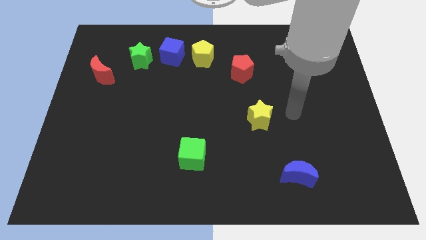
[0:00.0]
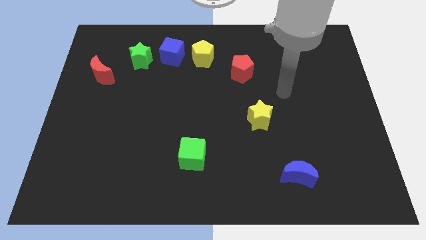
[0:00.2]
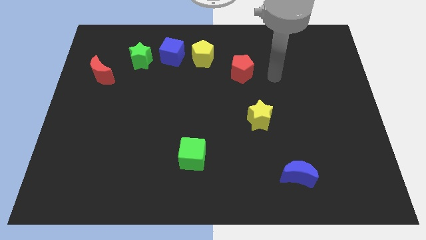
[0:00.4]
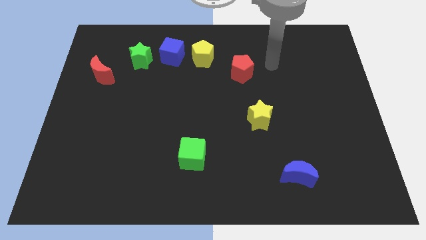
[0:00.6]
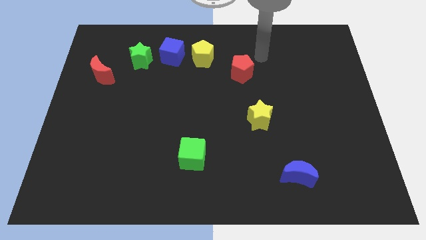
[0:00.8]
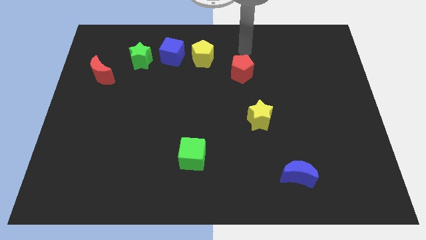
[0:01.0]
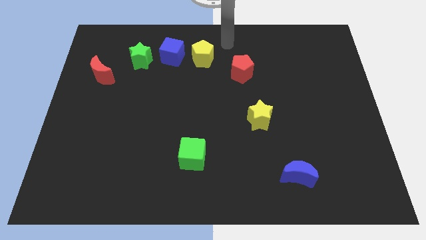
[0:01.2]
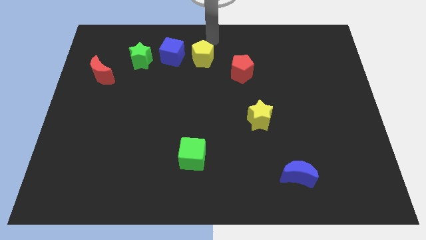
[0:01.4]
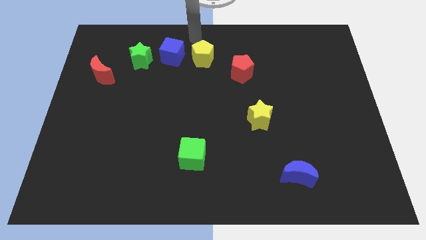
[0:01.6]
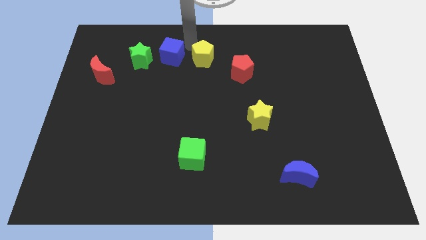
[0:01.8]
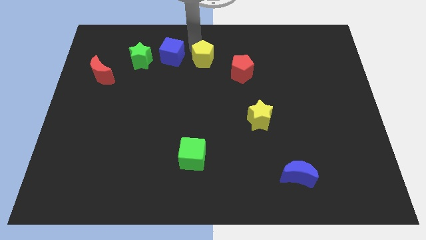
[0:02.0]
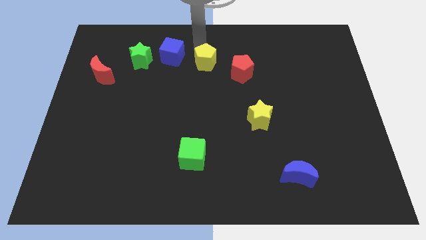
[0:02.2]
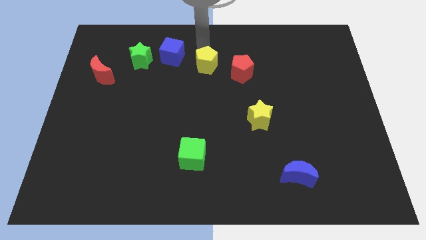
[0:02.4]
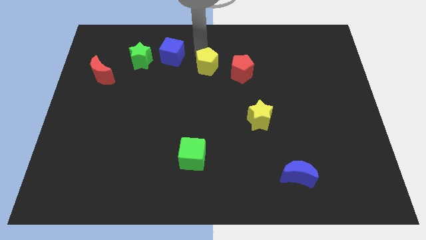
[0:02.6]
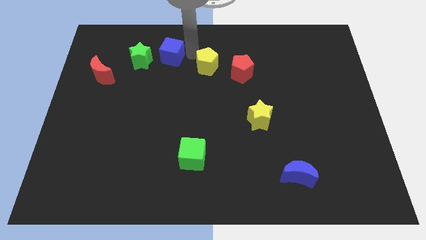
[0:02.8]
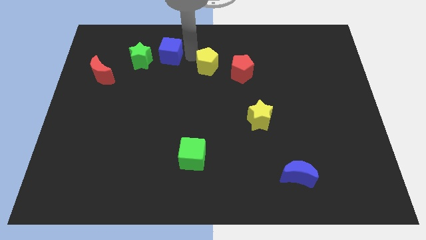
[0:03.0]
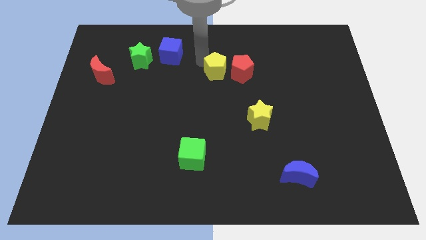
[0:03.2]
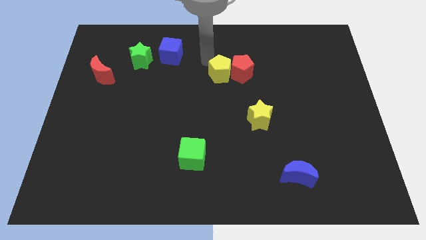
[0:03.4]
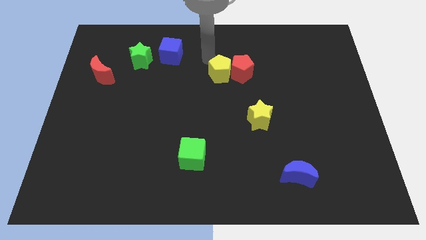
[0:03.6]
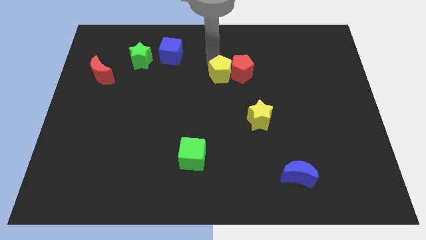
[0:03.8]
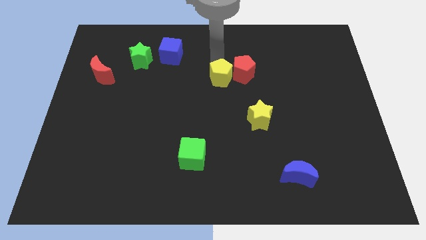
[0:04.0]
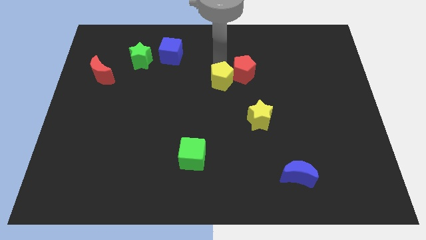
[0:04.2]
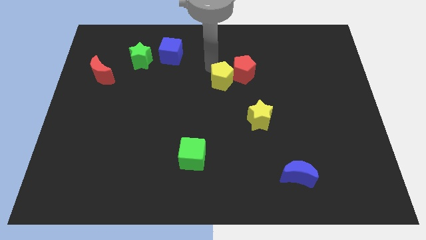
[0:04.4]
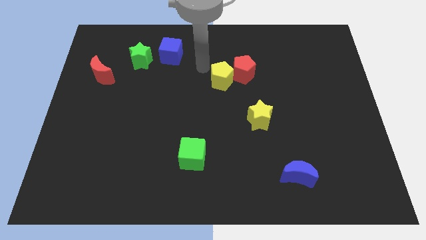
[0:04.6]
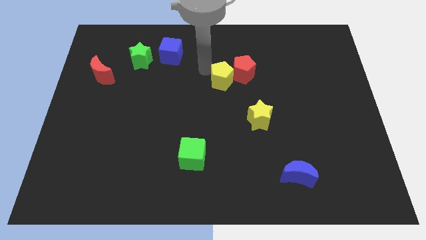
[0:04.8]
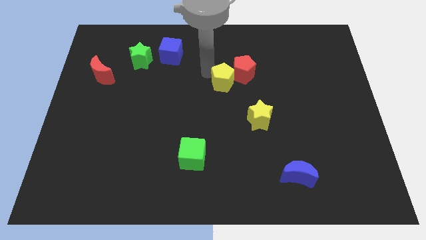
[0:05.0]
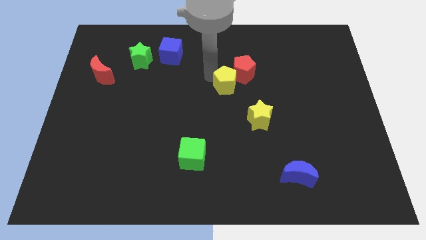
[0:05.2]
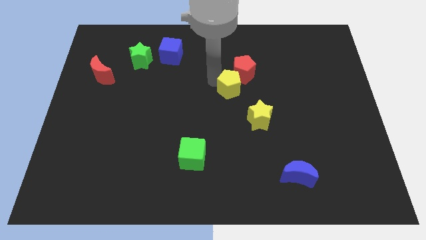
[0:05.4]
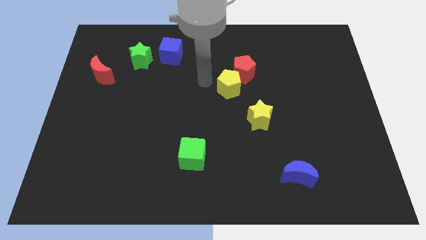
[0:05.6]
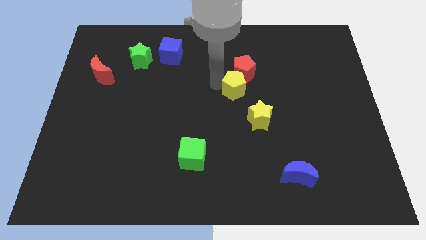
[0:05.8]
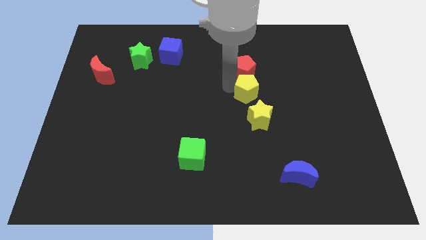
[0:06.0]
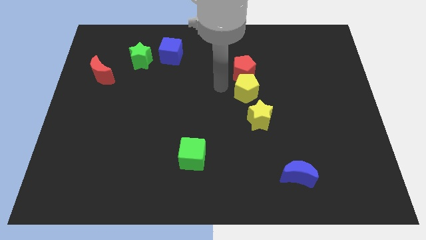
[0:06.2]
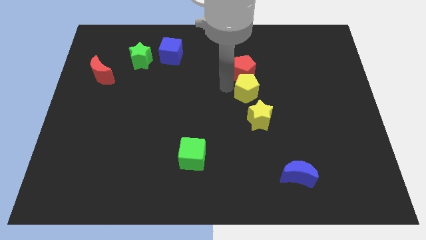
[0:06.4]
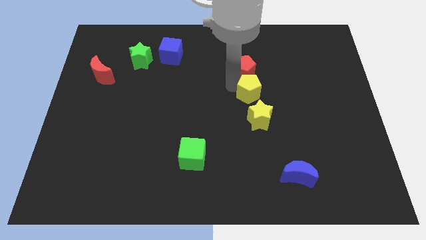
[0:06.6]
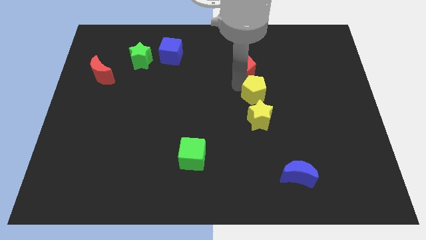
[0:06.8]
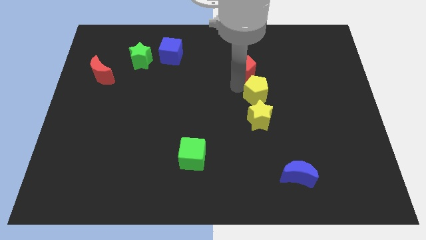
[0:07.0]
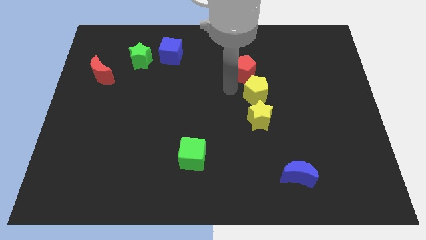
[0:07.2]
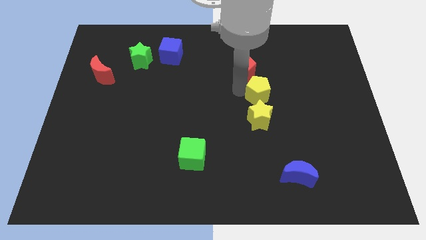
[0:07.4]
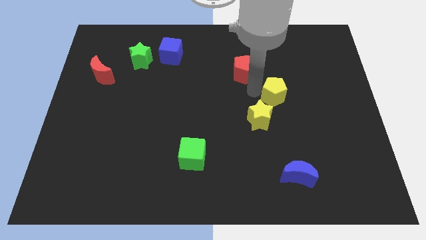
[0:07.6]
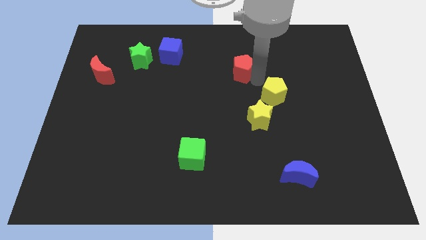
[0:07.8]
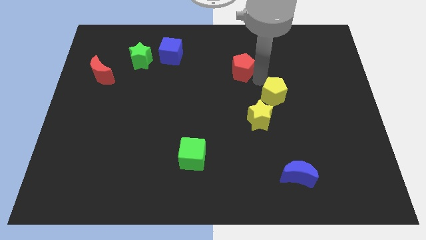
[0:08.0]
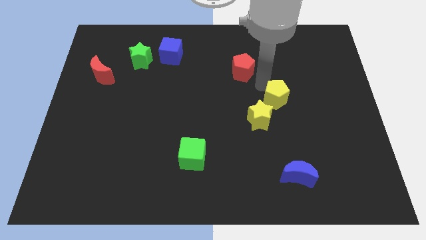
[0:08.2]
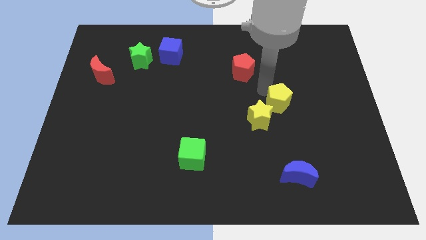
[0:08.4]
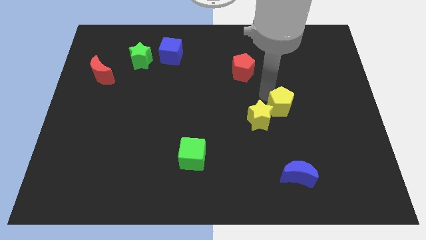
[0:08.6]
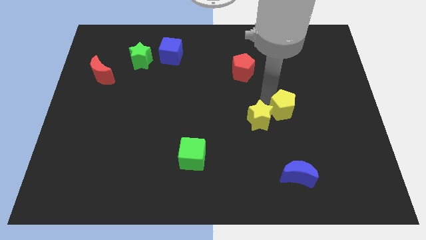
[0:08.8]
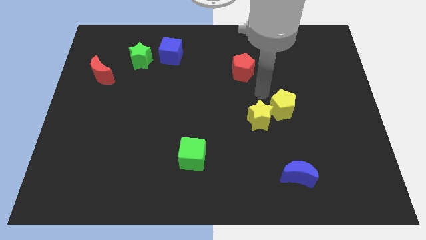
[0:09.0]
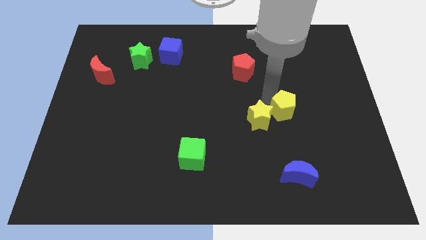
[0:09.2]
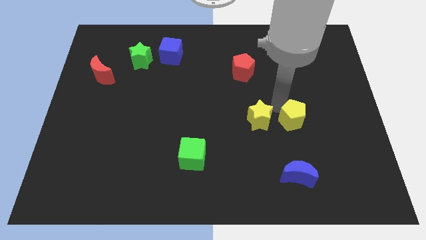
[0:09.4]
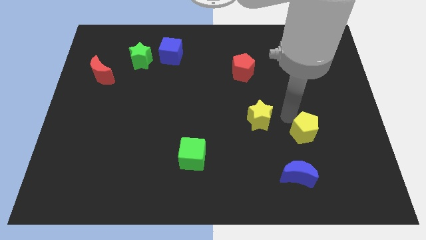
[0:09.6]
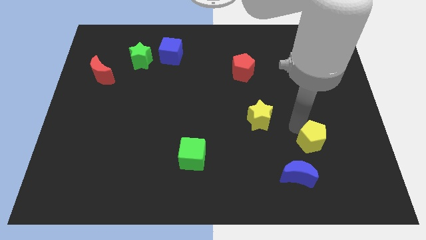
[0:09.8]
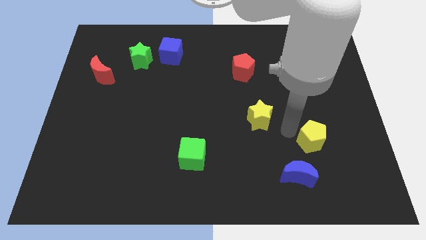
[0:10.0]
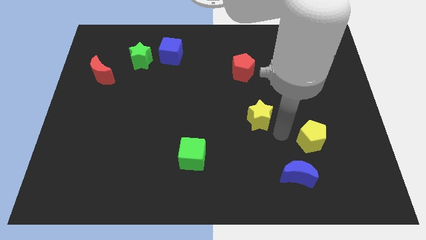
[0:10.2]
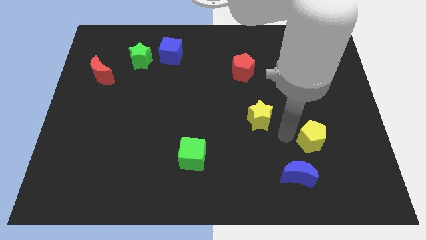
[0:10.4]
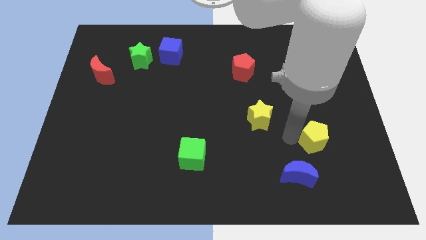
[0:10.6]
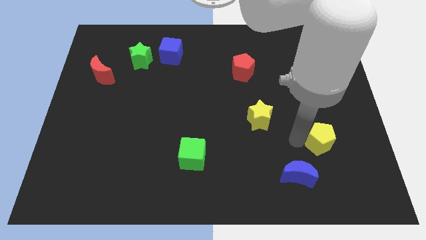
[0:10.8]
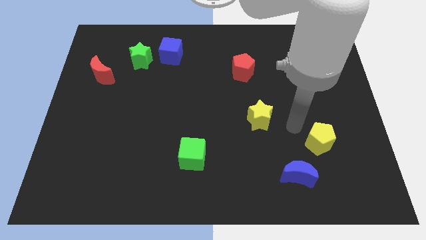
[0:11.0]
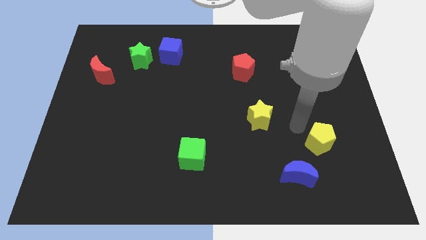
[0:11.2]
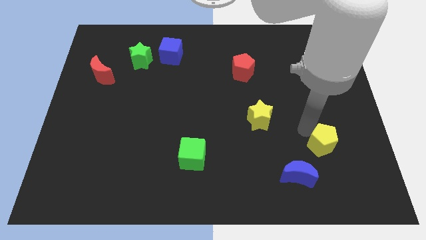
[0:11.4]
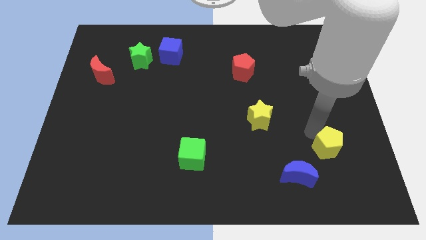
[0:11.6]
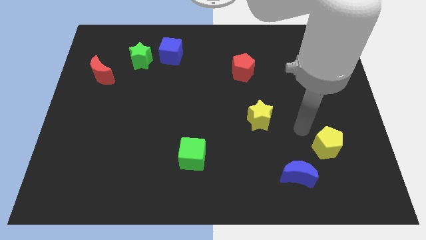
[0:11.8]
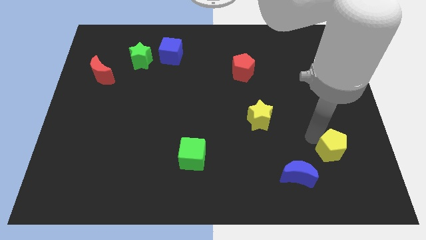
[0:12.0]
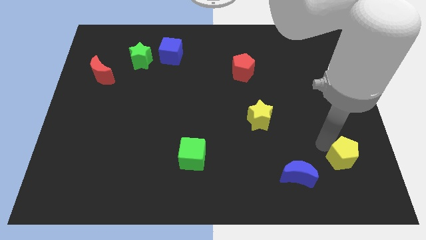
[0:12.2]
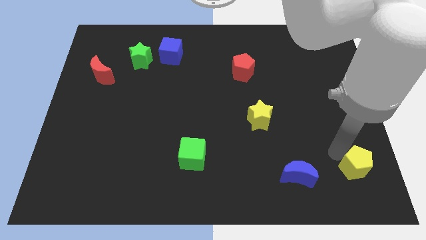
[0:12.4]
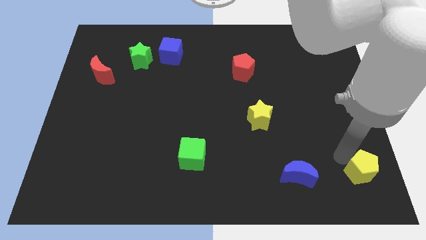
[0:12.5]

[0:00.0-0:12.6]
move the yellow pentagon to the bottom right
